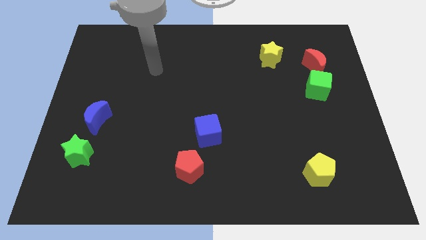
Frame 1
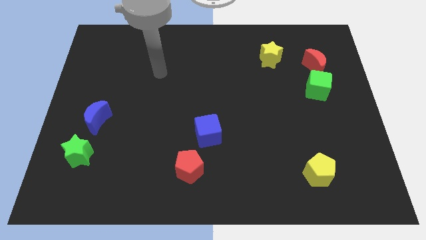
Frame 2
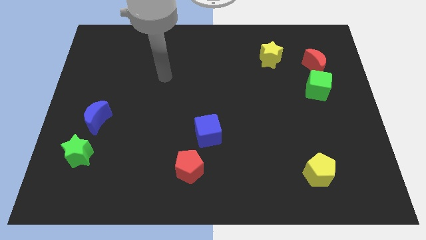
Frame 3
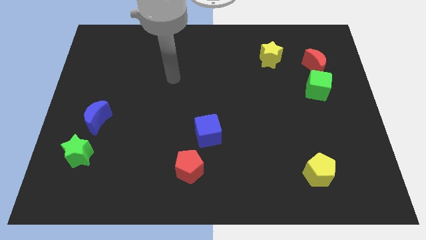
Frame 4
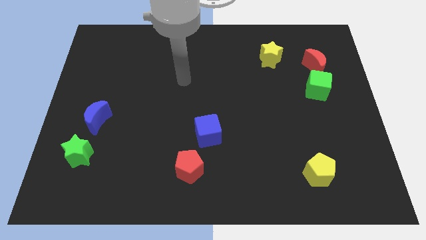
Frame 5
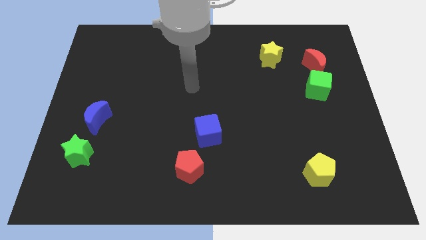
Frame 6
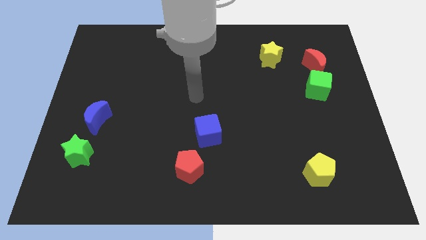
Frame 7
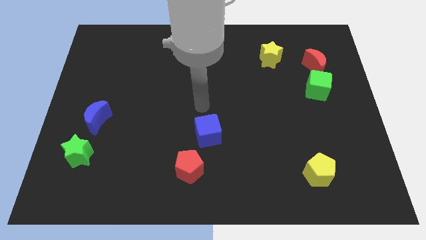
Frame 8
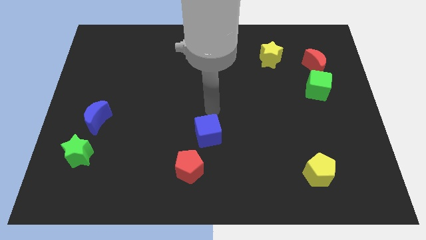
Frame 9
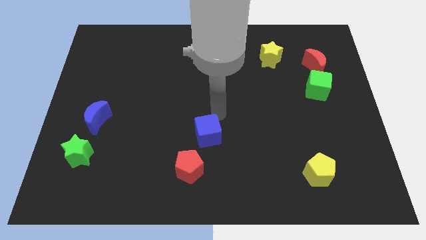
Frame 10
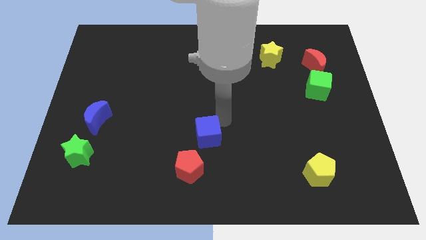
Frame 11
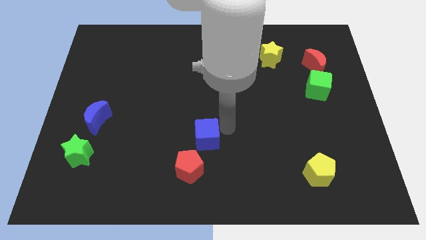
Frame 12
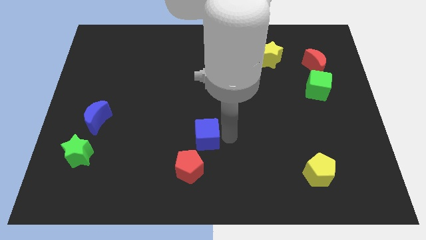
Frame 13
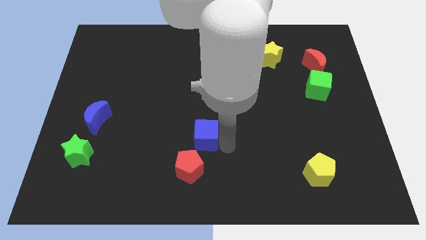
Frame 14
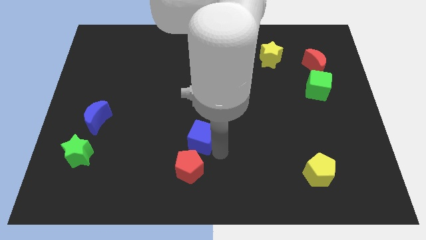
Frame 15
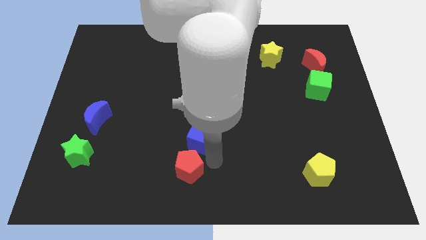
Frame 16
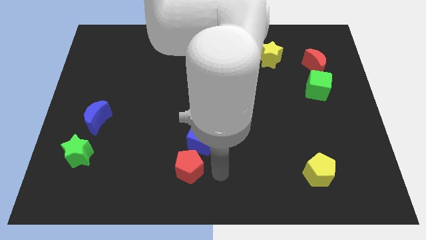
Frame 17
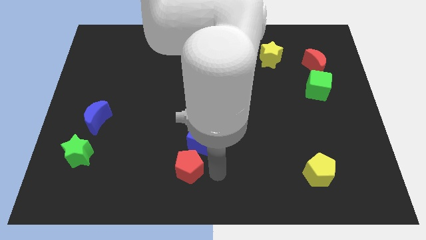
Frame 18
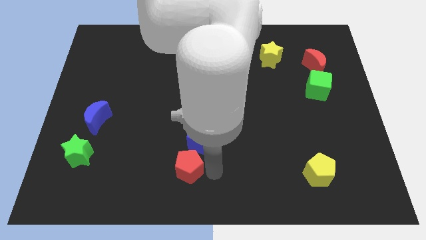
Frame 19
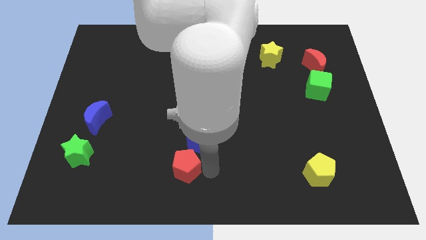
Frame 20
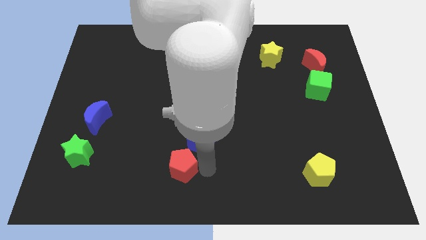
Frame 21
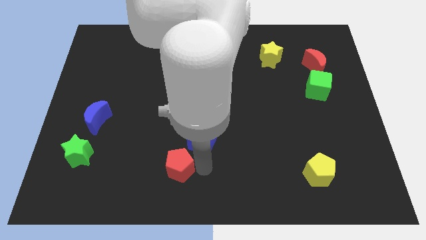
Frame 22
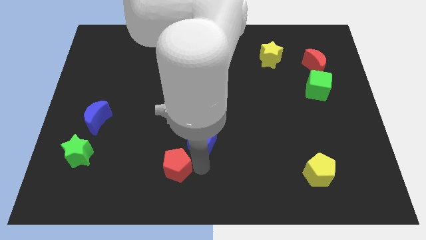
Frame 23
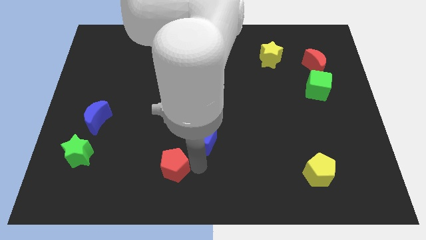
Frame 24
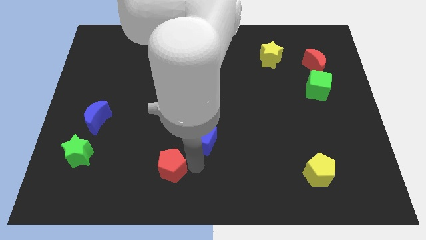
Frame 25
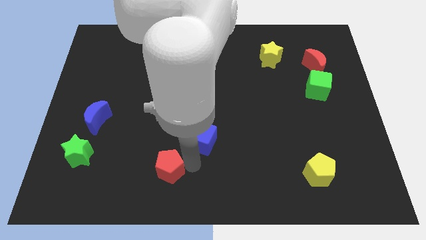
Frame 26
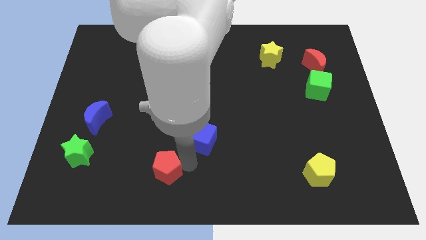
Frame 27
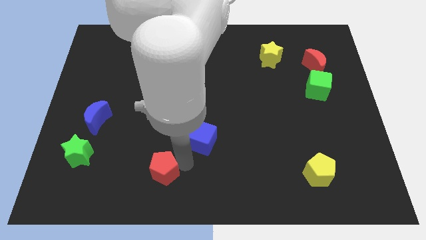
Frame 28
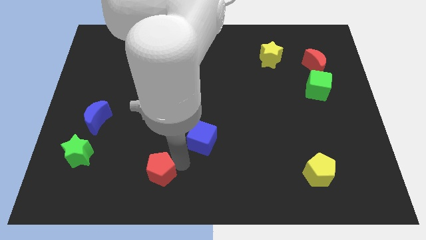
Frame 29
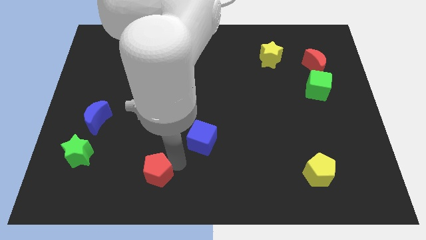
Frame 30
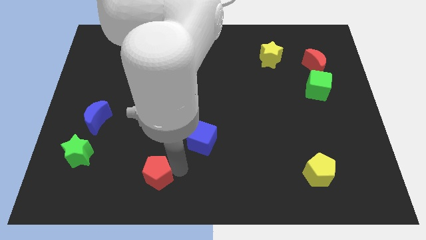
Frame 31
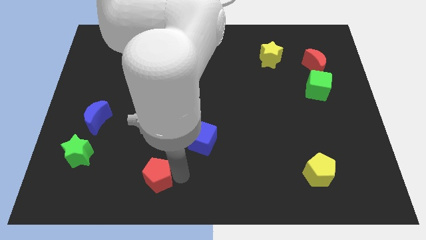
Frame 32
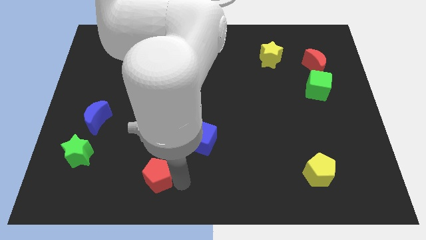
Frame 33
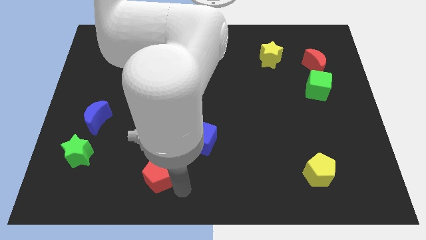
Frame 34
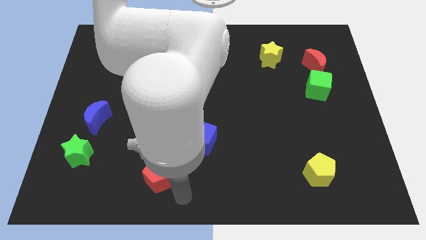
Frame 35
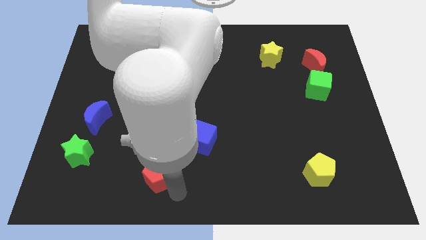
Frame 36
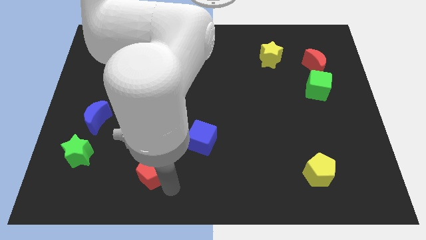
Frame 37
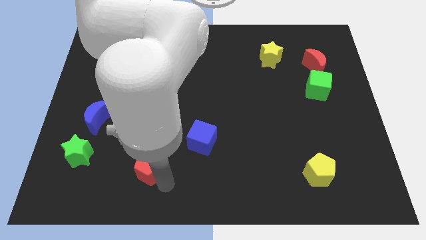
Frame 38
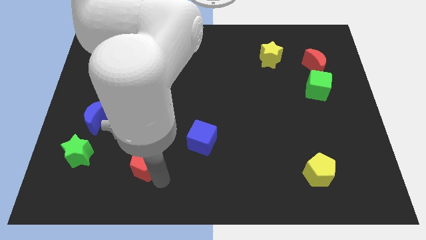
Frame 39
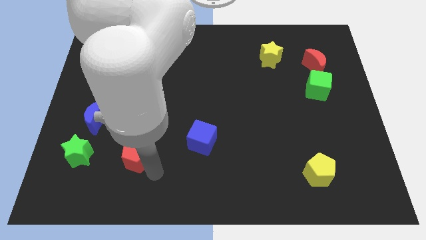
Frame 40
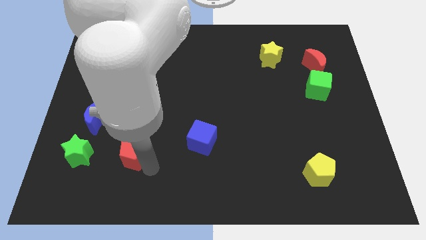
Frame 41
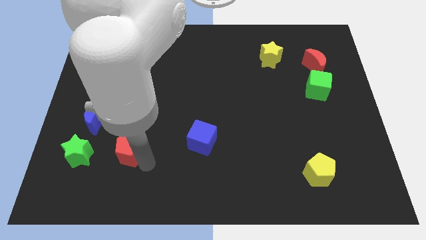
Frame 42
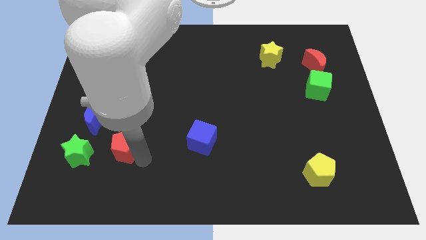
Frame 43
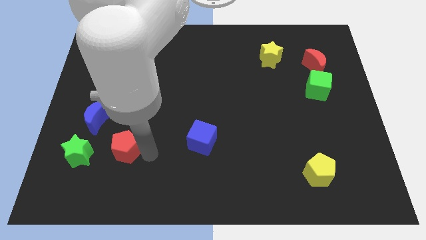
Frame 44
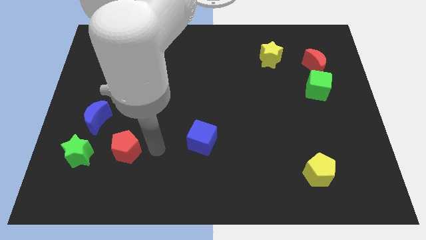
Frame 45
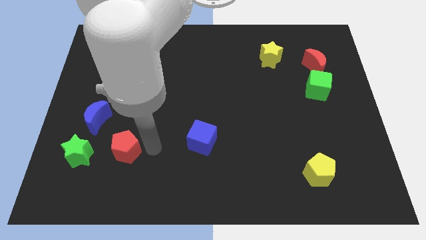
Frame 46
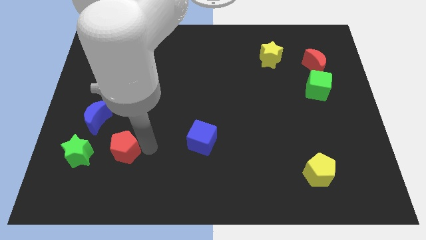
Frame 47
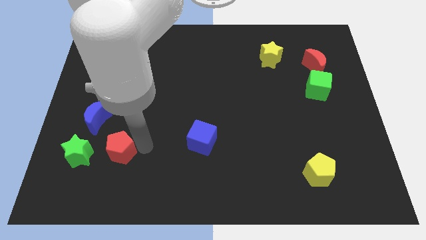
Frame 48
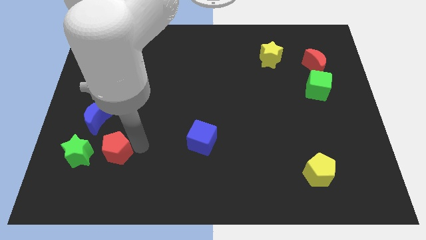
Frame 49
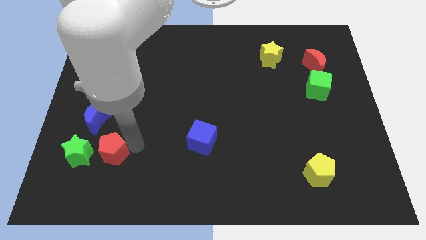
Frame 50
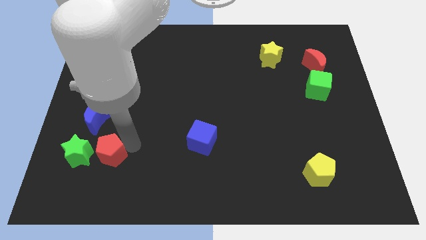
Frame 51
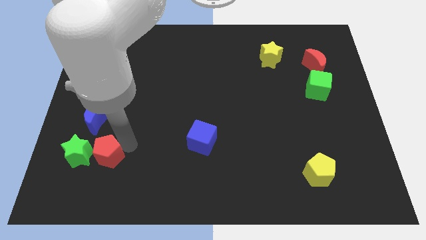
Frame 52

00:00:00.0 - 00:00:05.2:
push the red pentagon towards the green star

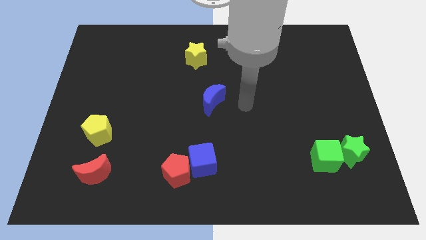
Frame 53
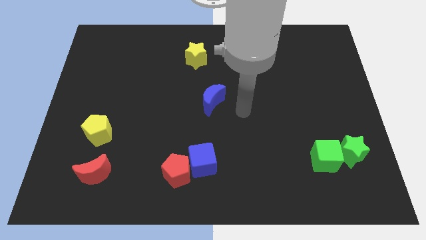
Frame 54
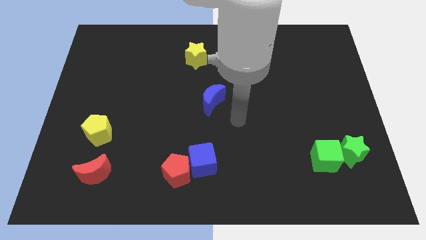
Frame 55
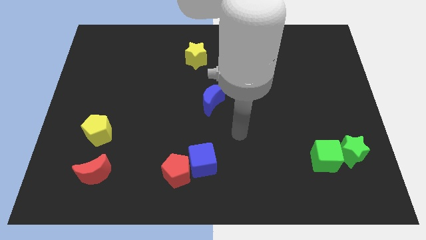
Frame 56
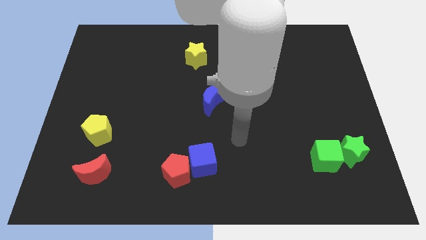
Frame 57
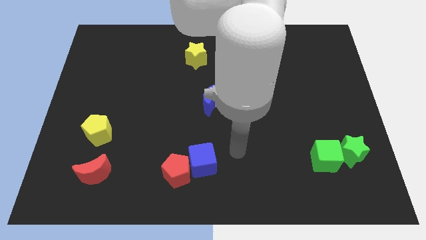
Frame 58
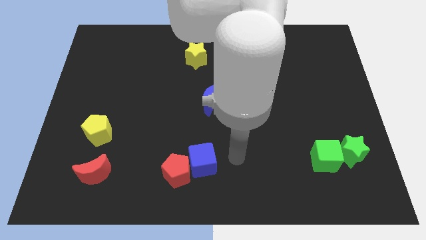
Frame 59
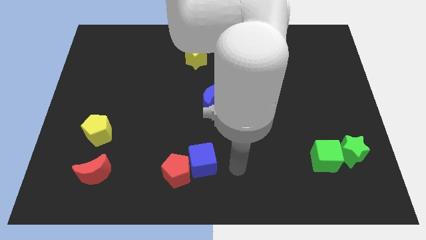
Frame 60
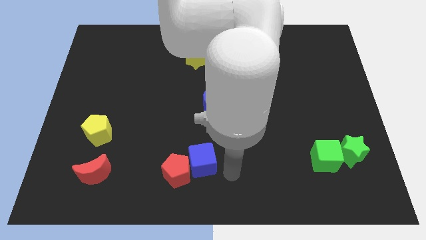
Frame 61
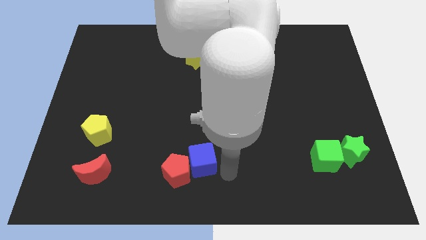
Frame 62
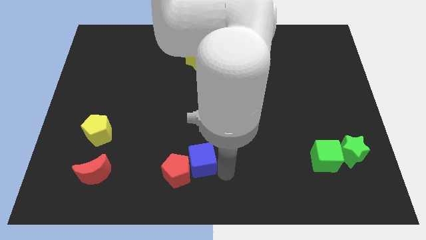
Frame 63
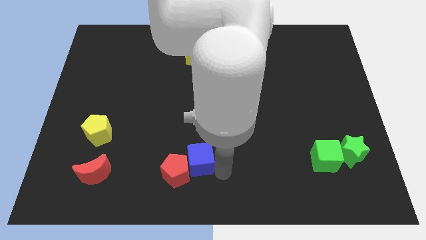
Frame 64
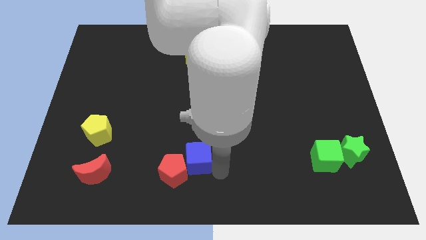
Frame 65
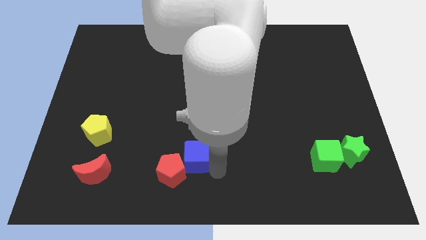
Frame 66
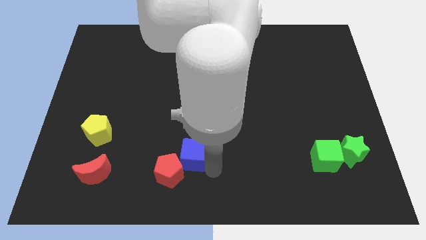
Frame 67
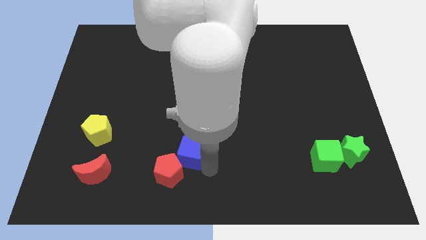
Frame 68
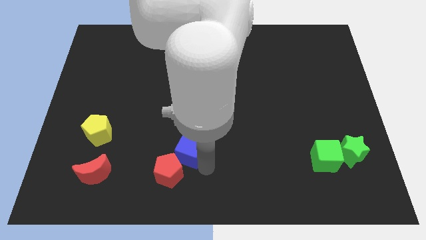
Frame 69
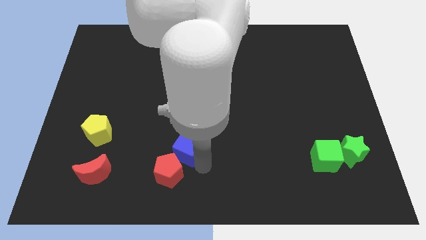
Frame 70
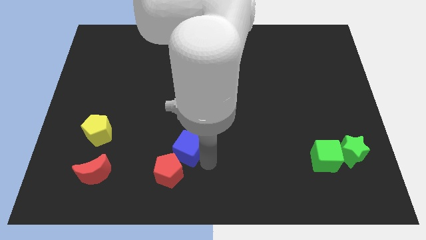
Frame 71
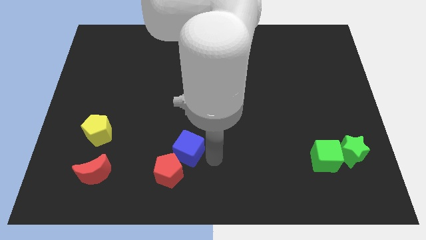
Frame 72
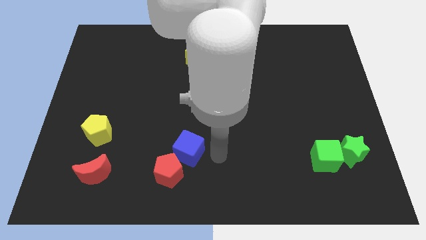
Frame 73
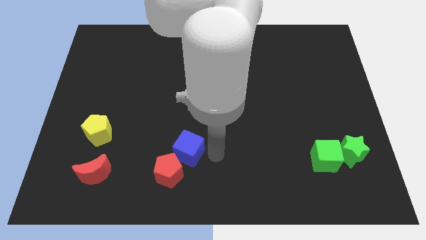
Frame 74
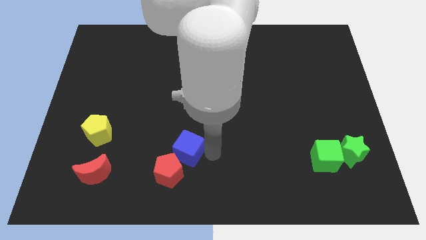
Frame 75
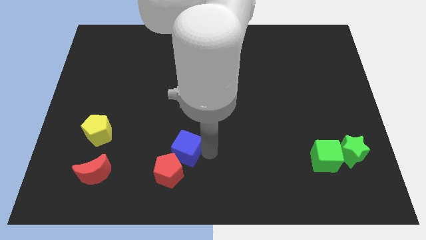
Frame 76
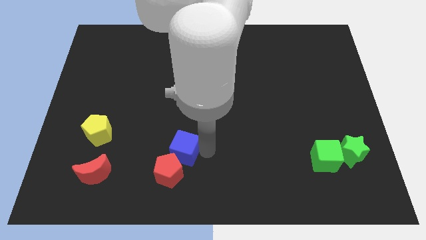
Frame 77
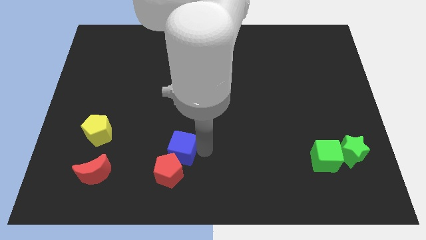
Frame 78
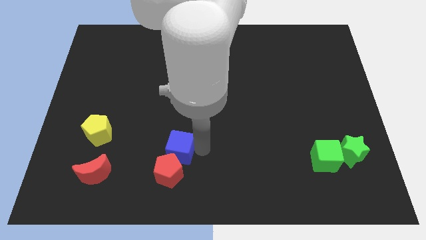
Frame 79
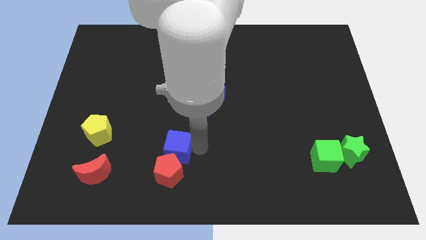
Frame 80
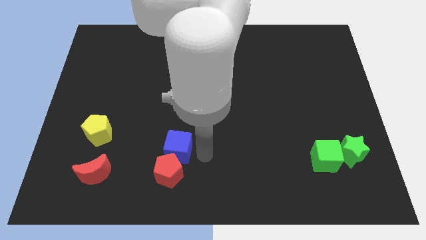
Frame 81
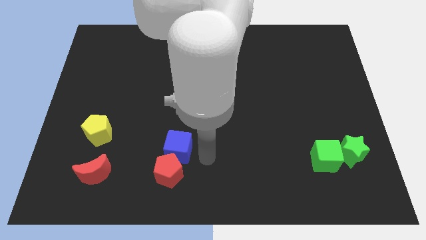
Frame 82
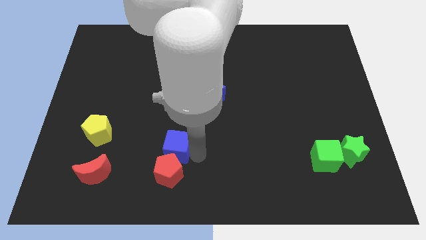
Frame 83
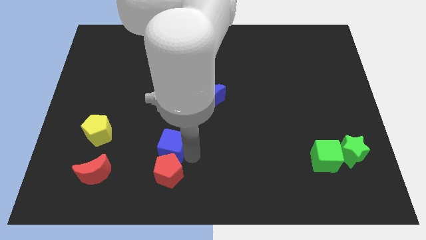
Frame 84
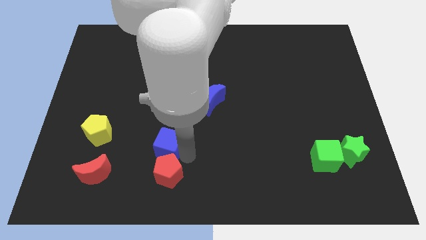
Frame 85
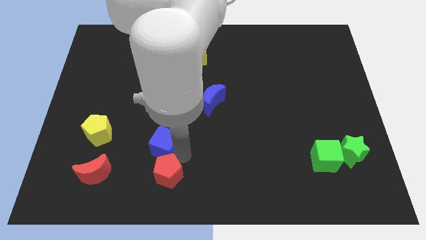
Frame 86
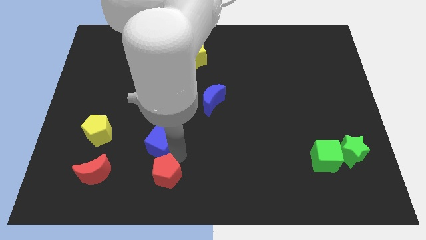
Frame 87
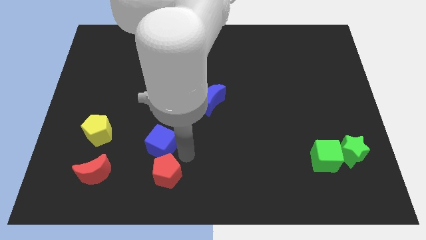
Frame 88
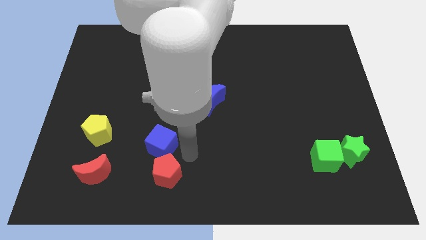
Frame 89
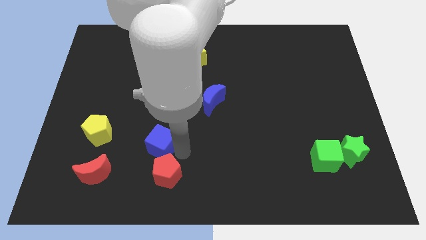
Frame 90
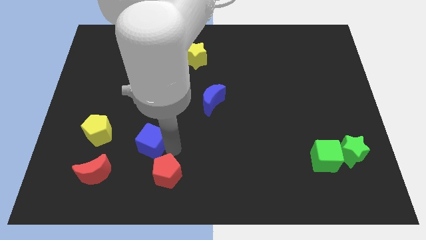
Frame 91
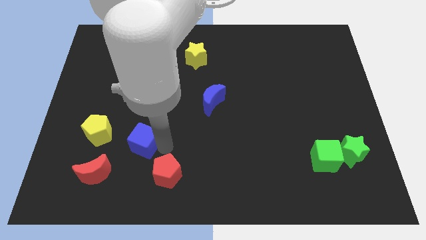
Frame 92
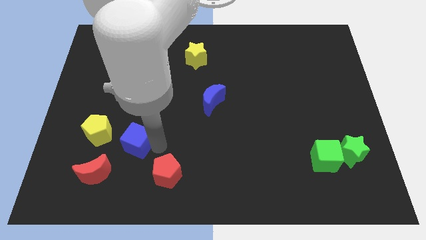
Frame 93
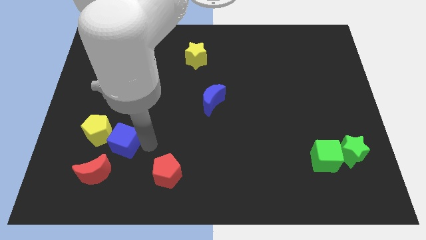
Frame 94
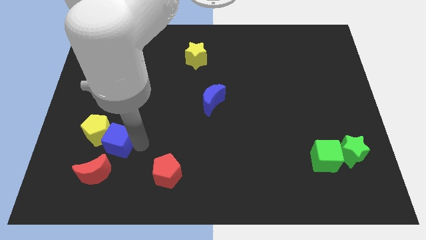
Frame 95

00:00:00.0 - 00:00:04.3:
put the blue cube next to the yellow pentagon
